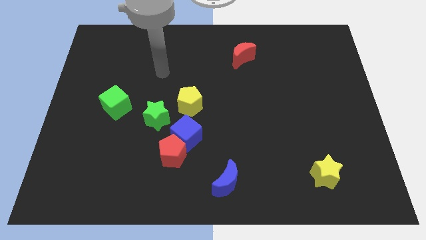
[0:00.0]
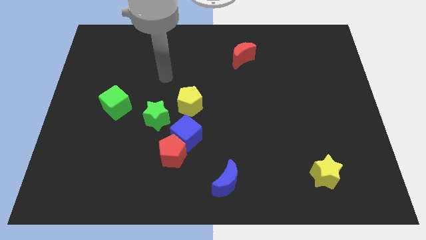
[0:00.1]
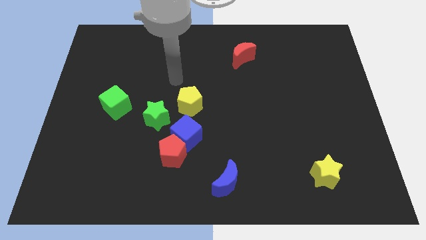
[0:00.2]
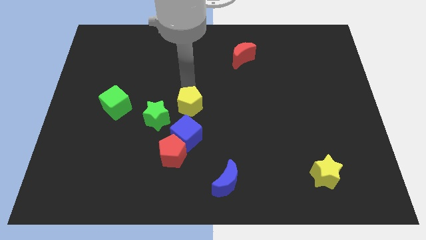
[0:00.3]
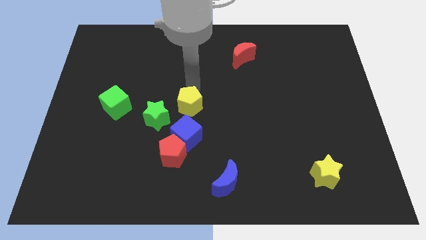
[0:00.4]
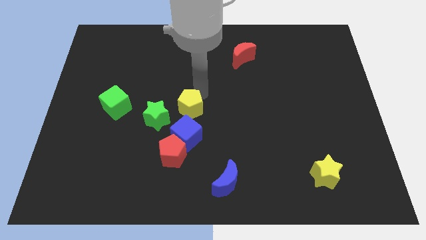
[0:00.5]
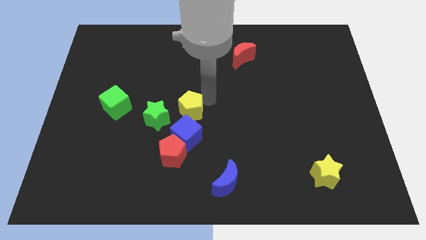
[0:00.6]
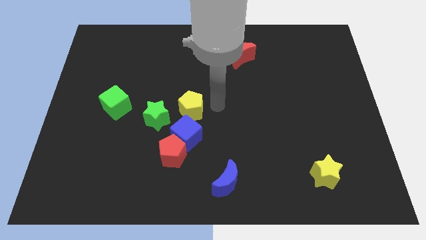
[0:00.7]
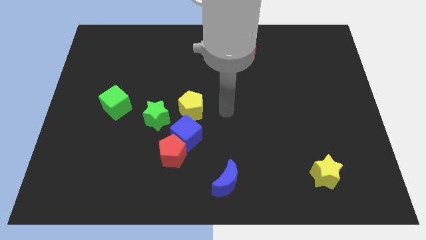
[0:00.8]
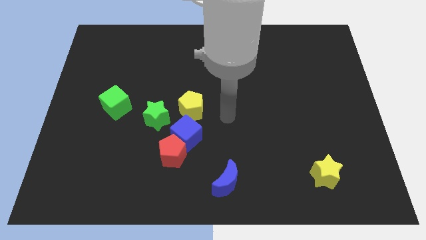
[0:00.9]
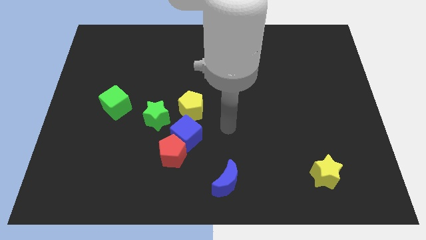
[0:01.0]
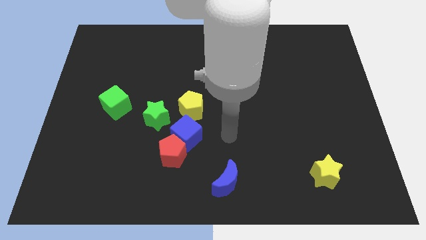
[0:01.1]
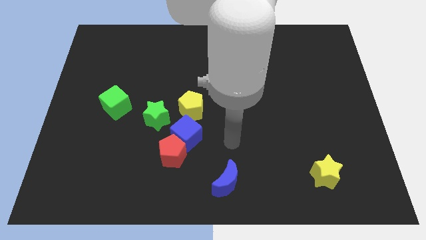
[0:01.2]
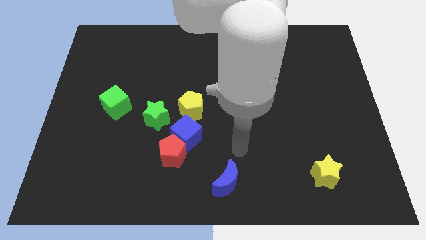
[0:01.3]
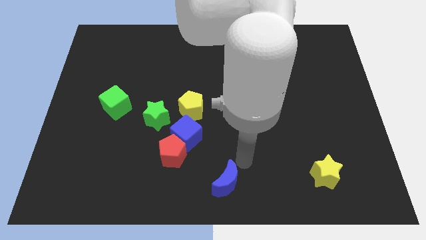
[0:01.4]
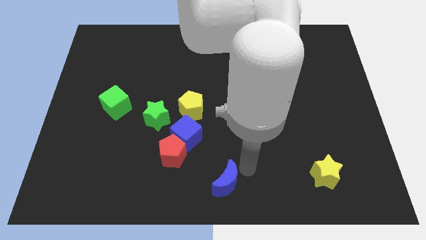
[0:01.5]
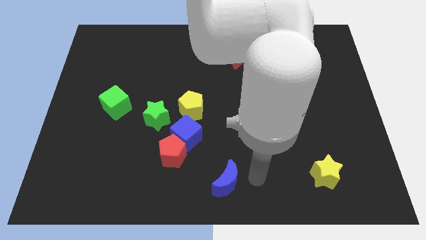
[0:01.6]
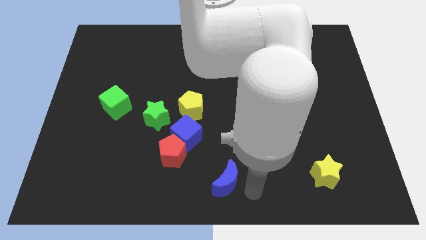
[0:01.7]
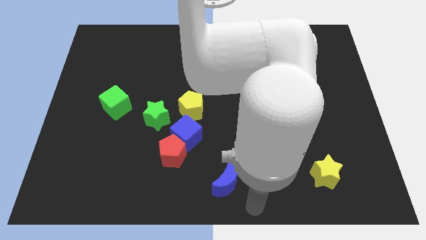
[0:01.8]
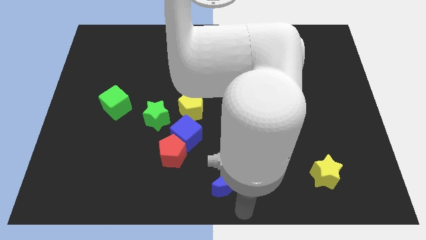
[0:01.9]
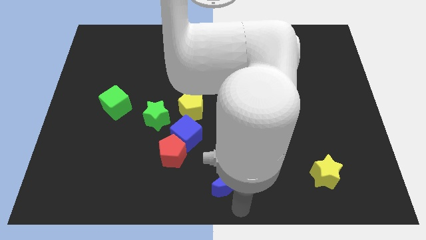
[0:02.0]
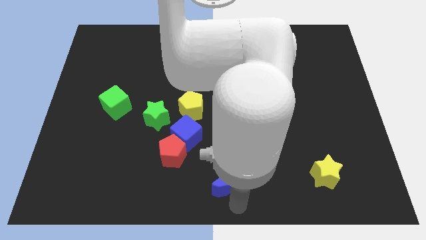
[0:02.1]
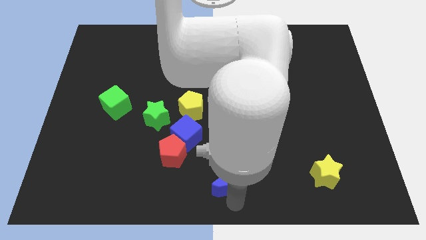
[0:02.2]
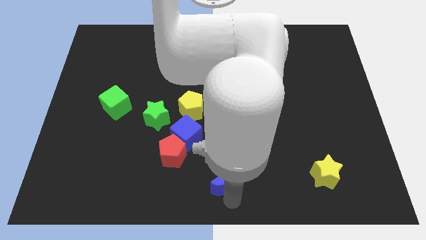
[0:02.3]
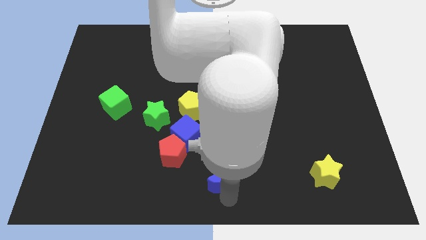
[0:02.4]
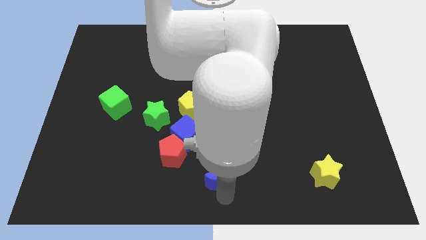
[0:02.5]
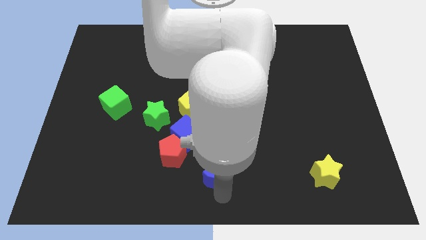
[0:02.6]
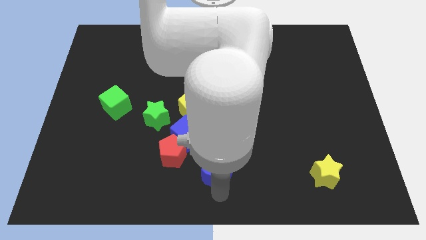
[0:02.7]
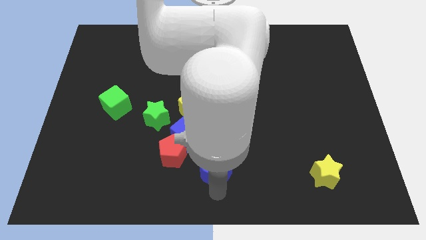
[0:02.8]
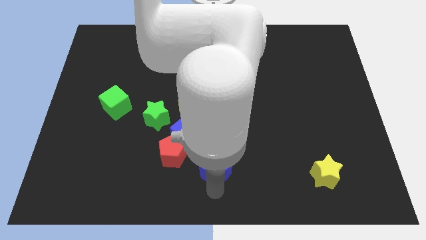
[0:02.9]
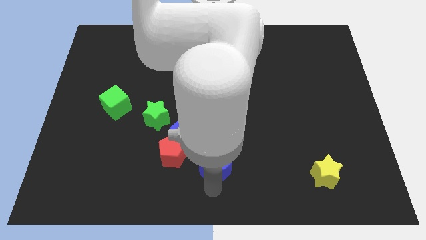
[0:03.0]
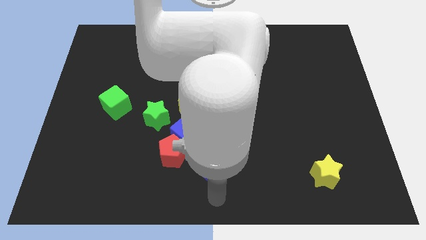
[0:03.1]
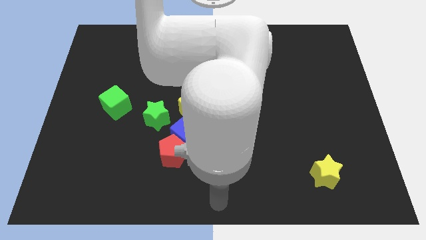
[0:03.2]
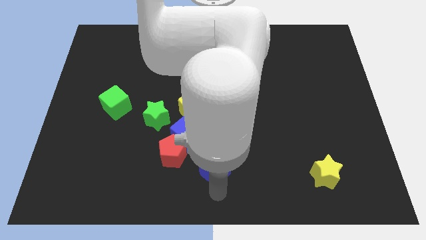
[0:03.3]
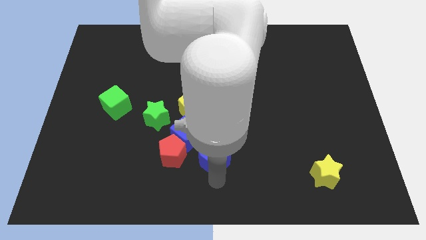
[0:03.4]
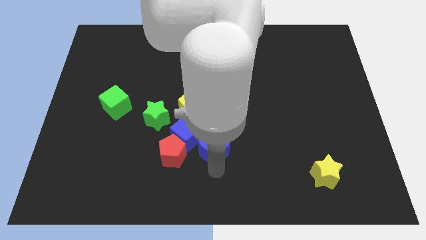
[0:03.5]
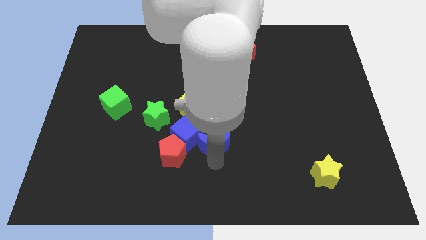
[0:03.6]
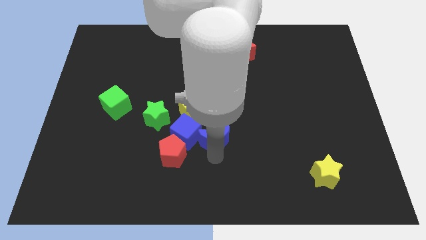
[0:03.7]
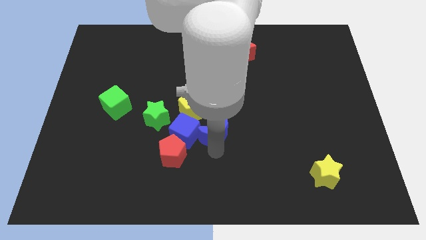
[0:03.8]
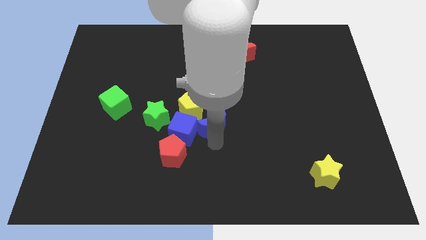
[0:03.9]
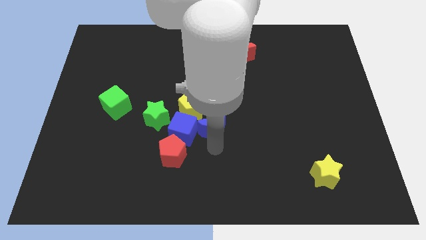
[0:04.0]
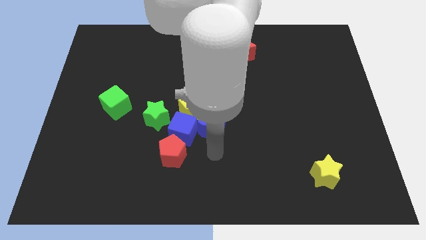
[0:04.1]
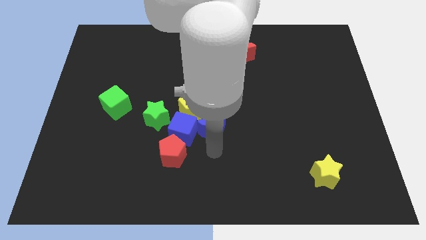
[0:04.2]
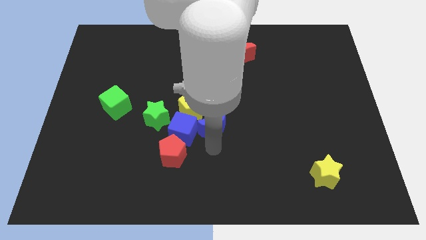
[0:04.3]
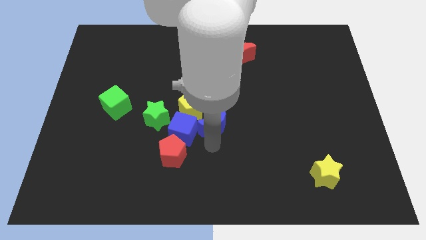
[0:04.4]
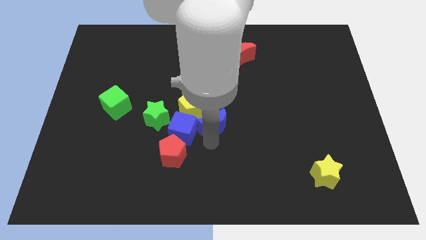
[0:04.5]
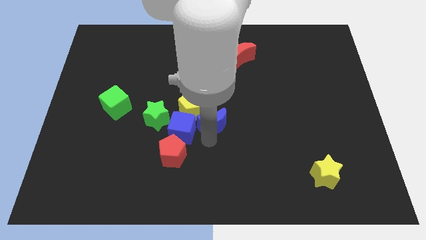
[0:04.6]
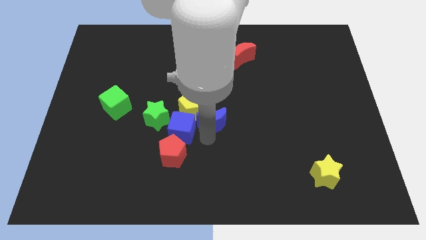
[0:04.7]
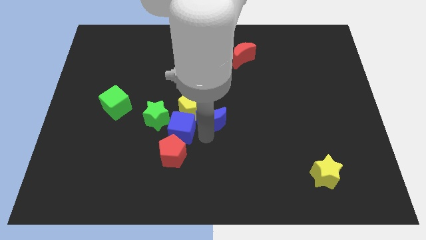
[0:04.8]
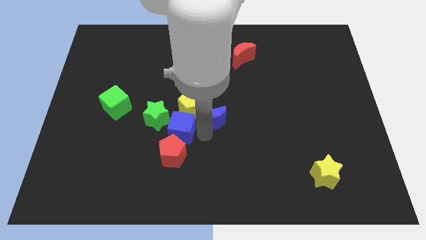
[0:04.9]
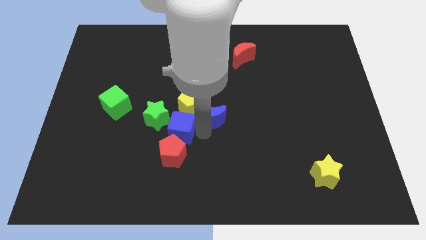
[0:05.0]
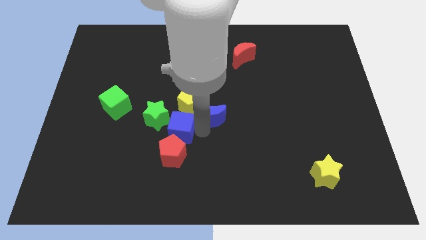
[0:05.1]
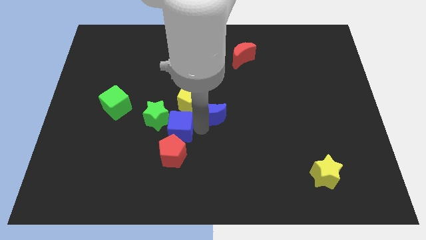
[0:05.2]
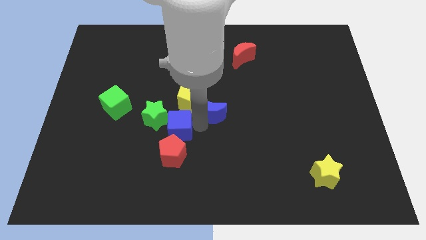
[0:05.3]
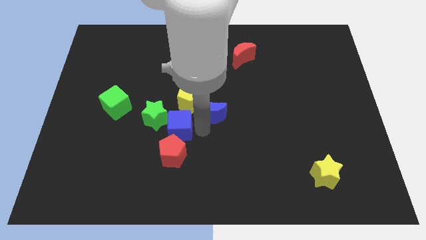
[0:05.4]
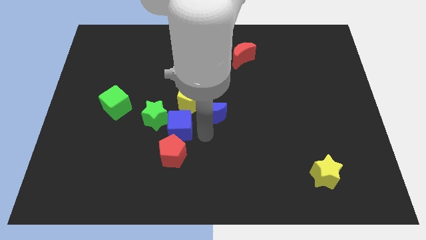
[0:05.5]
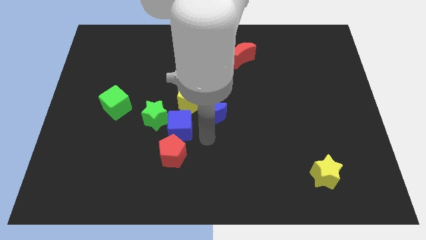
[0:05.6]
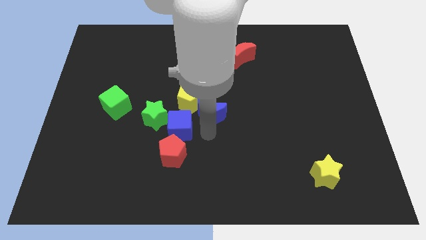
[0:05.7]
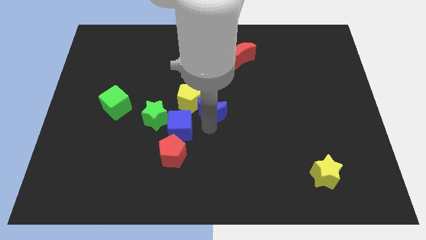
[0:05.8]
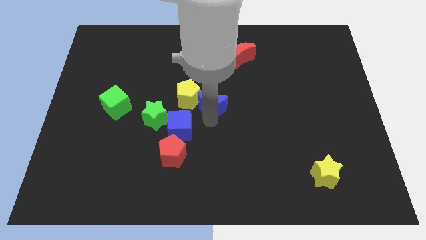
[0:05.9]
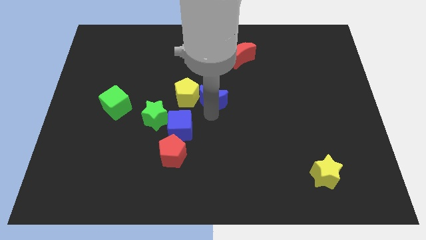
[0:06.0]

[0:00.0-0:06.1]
push the blue moon upwards

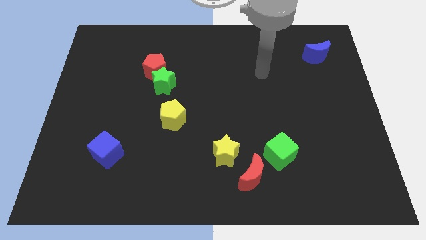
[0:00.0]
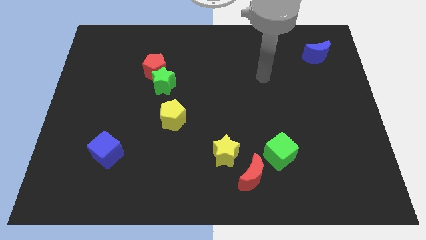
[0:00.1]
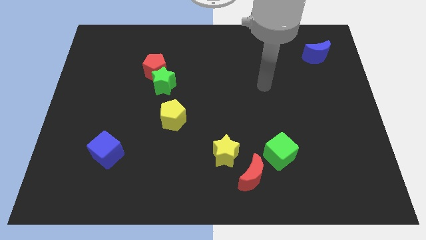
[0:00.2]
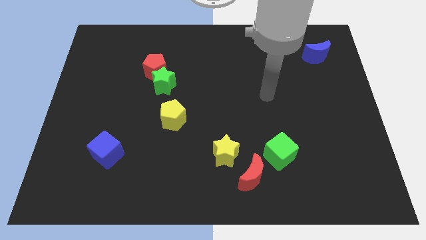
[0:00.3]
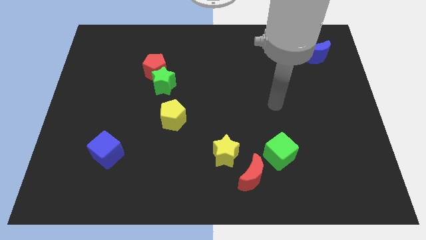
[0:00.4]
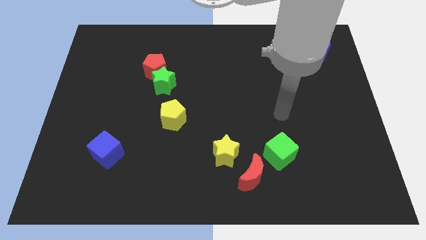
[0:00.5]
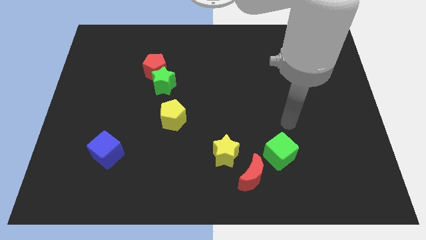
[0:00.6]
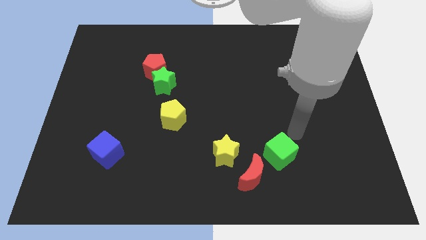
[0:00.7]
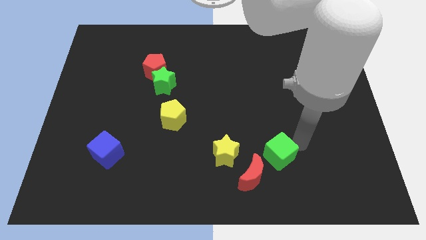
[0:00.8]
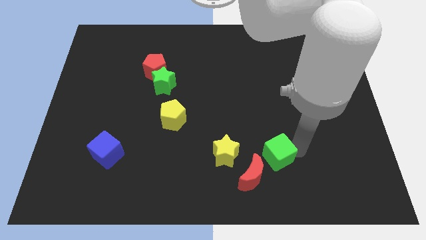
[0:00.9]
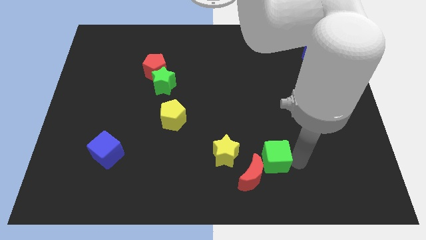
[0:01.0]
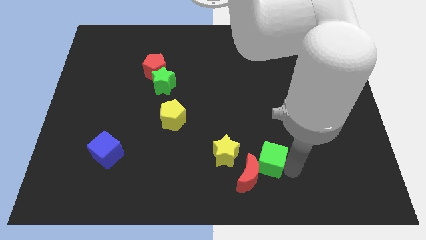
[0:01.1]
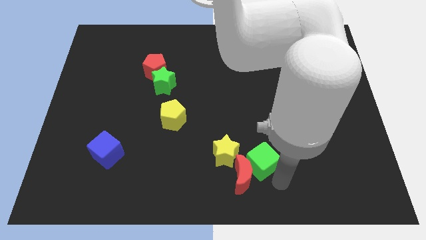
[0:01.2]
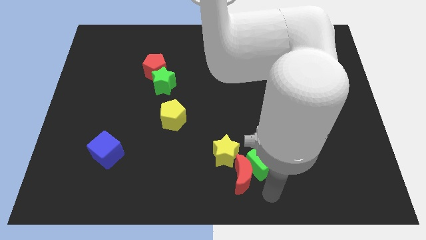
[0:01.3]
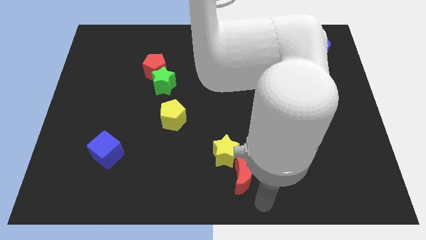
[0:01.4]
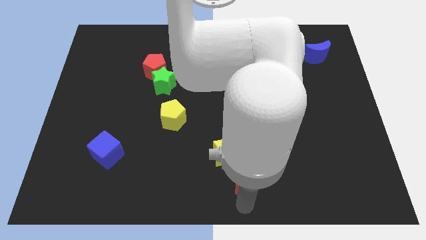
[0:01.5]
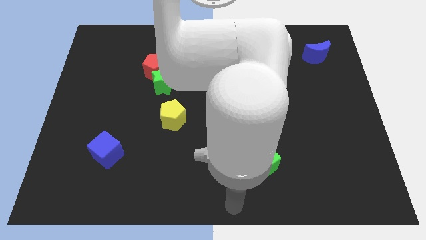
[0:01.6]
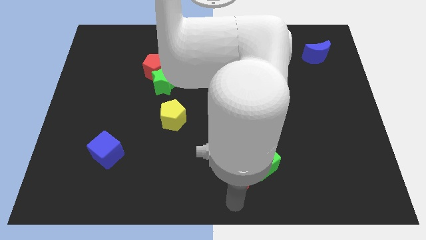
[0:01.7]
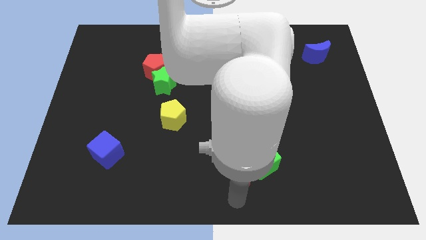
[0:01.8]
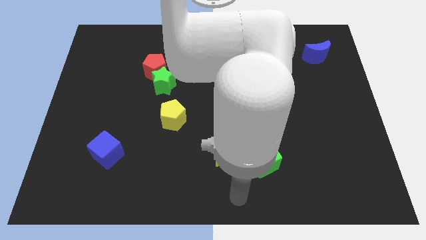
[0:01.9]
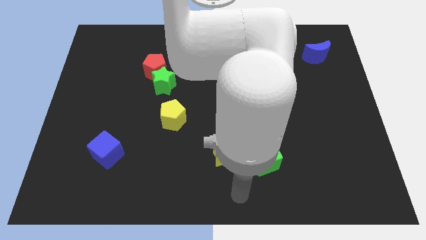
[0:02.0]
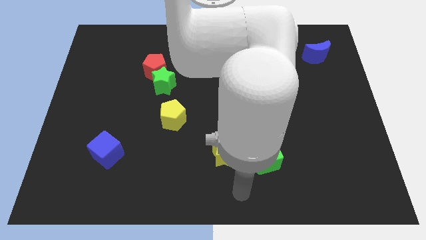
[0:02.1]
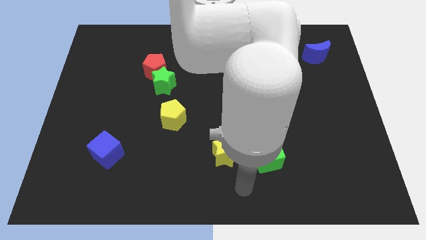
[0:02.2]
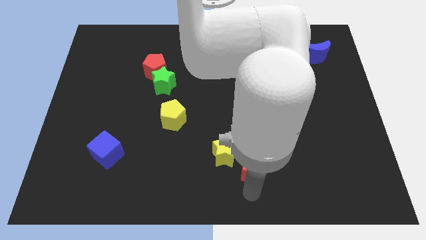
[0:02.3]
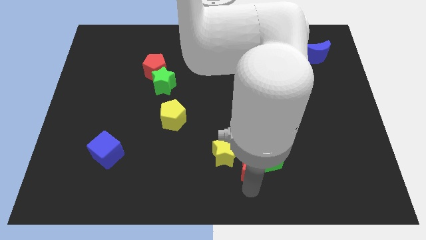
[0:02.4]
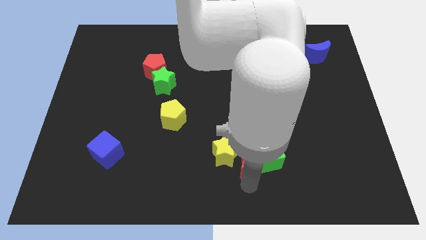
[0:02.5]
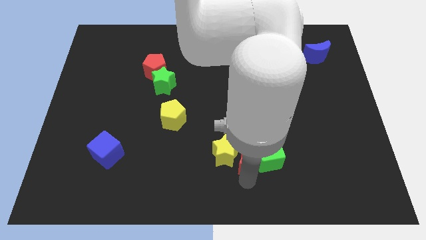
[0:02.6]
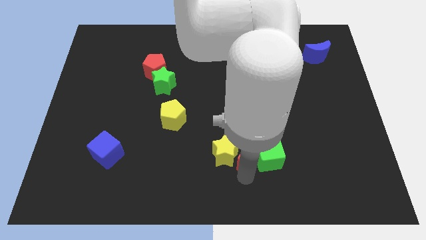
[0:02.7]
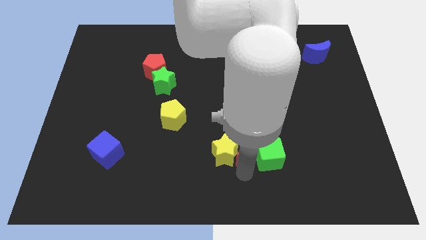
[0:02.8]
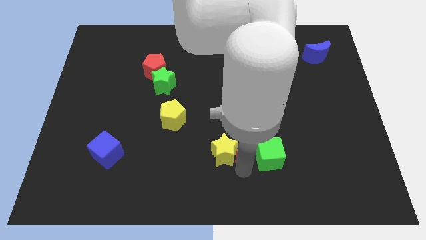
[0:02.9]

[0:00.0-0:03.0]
slightly slide the red moon up
